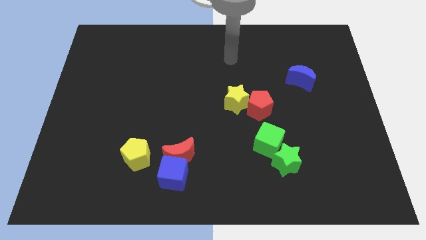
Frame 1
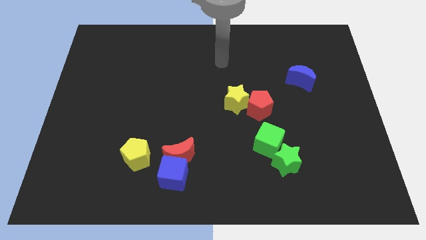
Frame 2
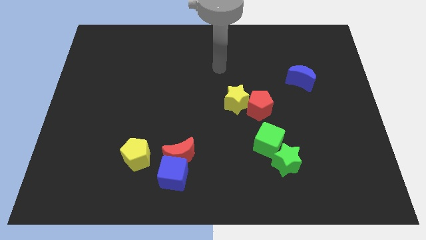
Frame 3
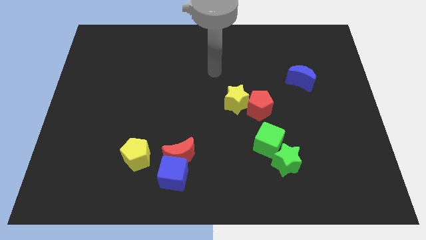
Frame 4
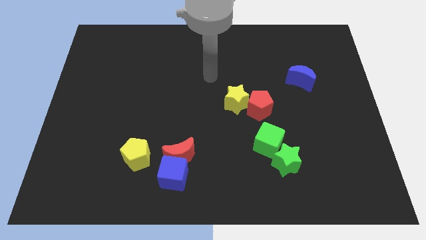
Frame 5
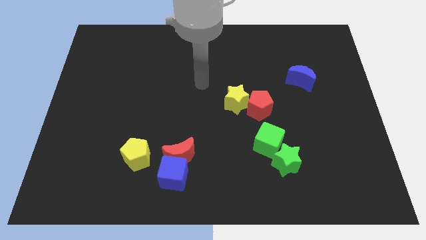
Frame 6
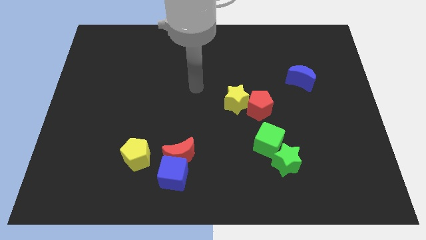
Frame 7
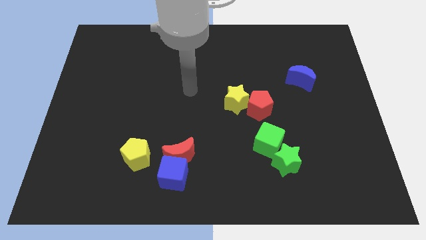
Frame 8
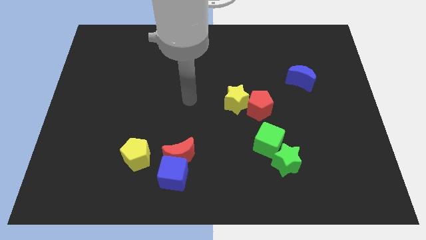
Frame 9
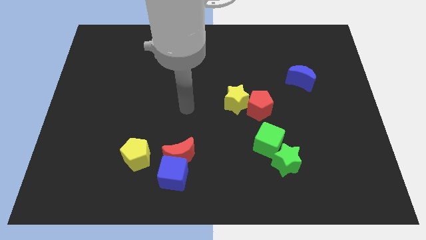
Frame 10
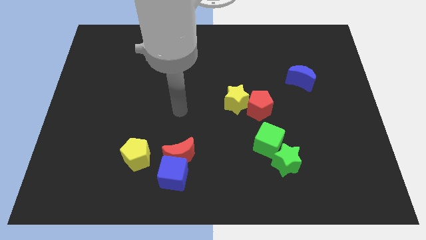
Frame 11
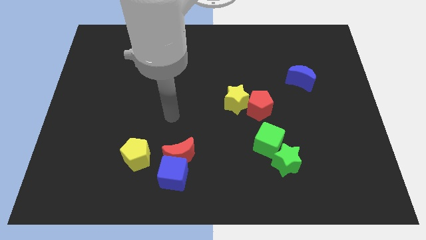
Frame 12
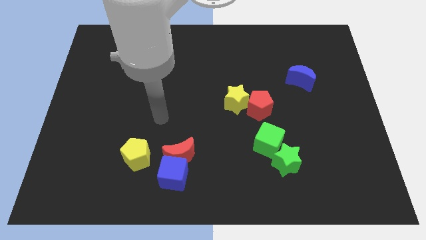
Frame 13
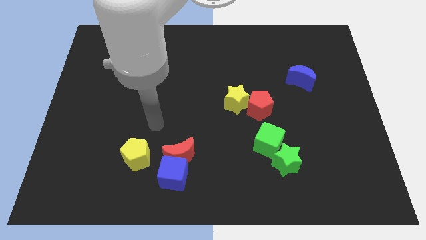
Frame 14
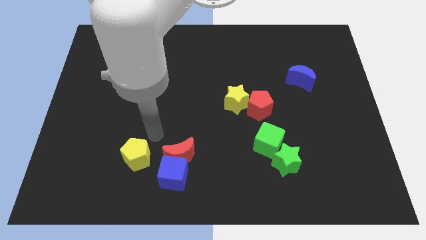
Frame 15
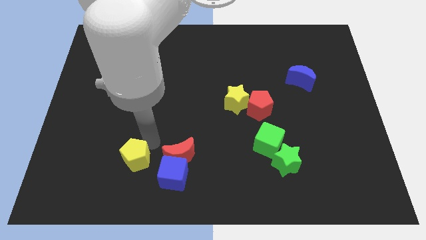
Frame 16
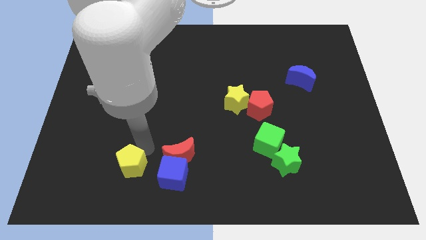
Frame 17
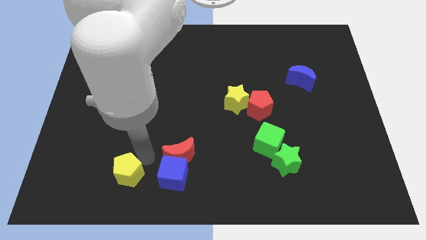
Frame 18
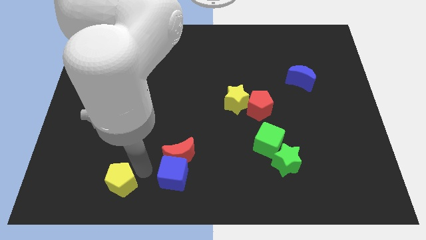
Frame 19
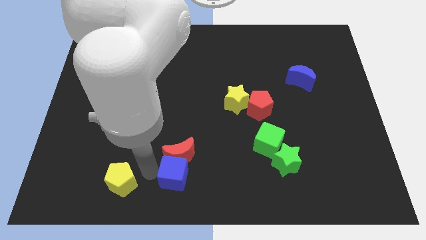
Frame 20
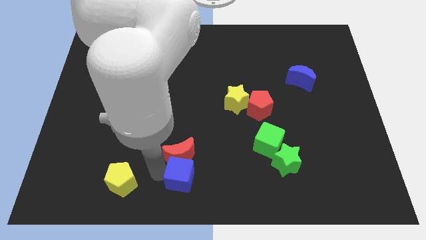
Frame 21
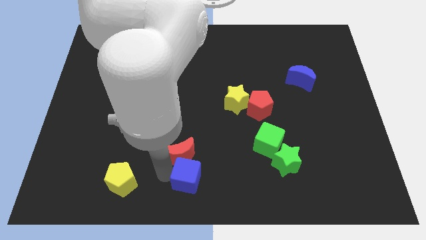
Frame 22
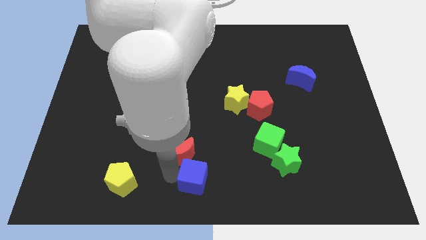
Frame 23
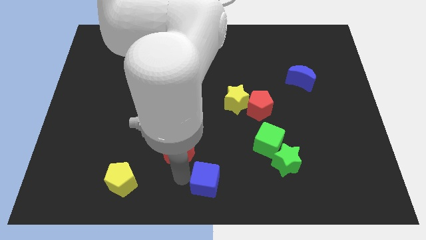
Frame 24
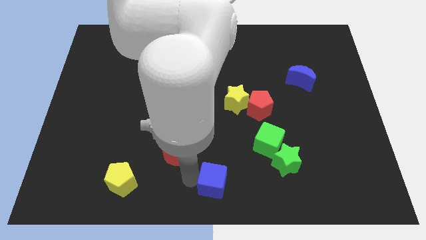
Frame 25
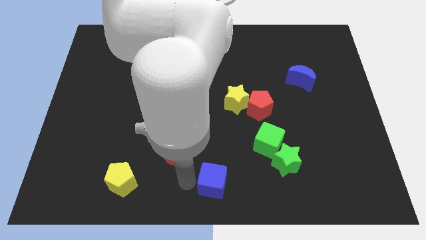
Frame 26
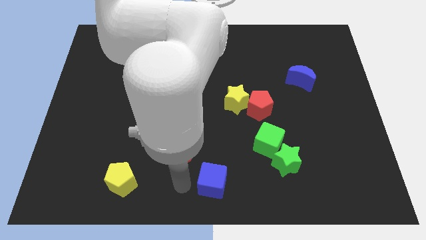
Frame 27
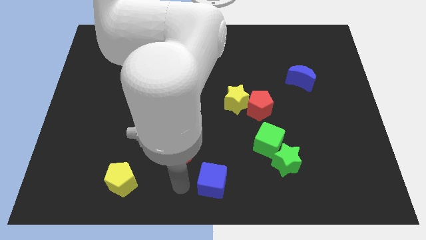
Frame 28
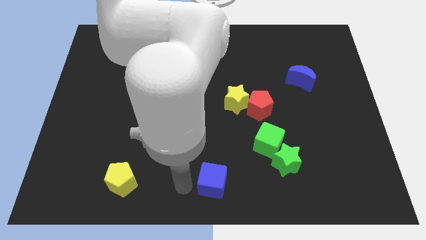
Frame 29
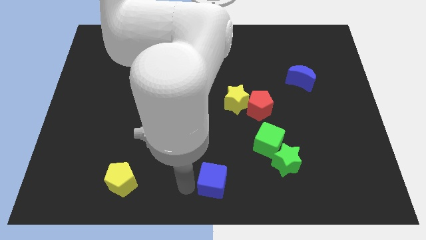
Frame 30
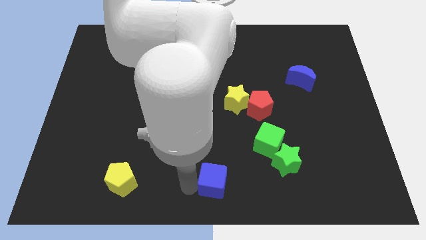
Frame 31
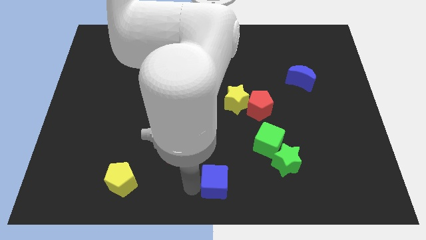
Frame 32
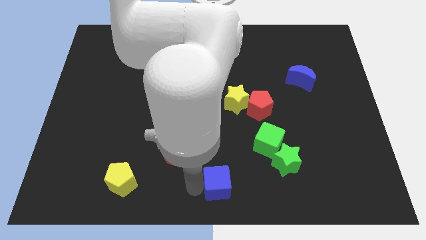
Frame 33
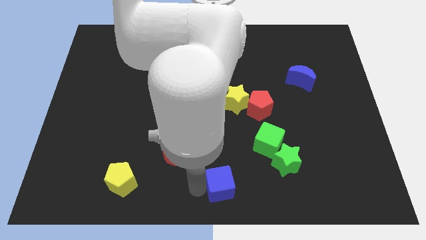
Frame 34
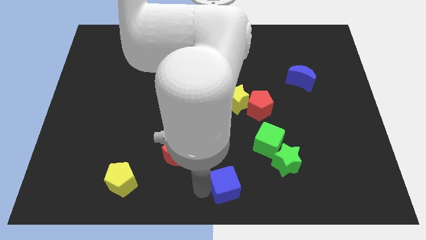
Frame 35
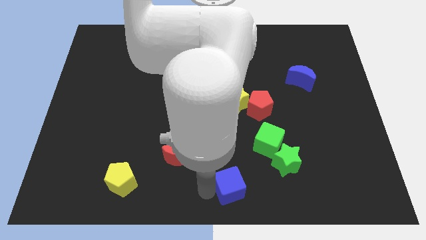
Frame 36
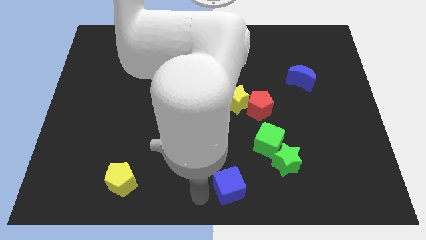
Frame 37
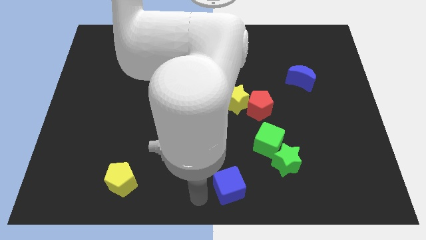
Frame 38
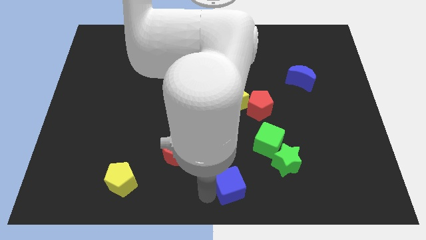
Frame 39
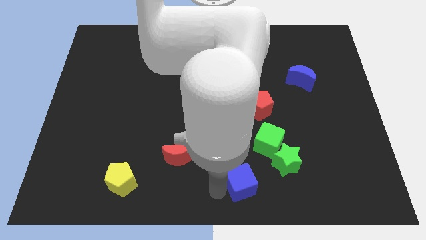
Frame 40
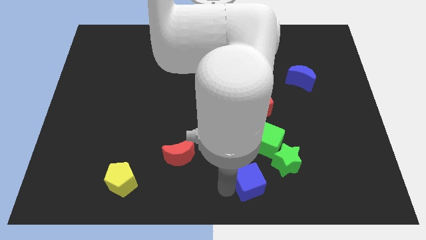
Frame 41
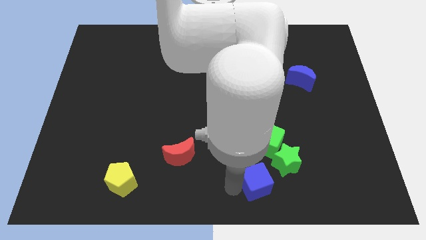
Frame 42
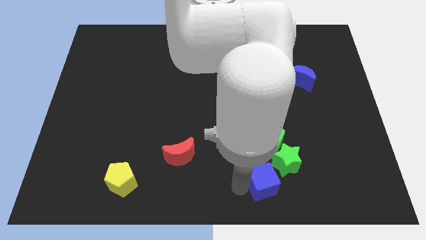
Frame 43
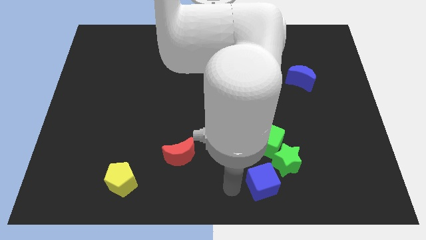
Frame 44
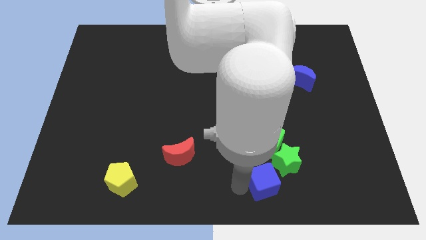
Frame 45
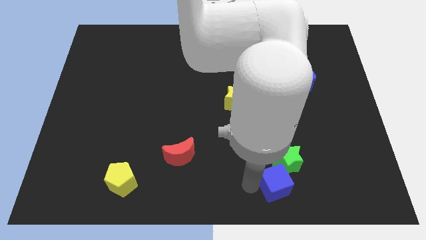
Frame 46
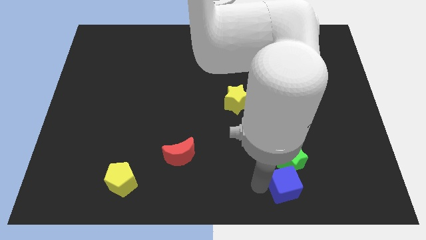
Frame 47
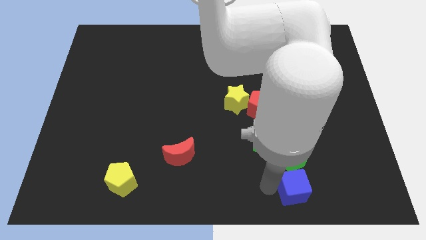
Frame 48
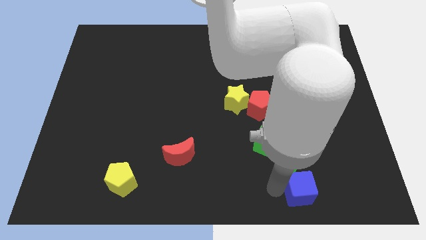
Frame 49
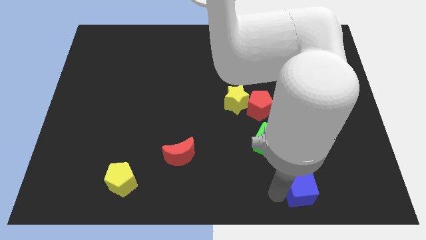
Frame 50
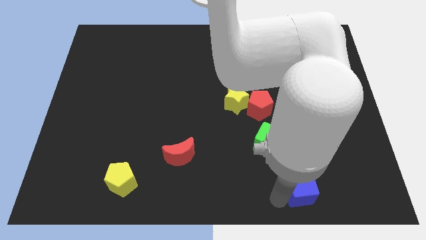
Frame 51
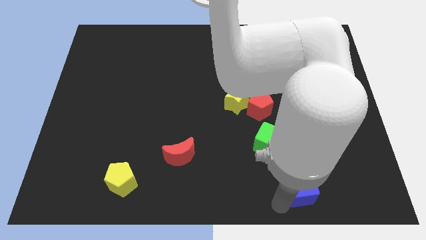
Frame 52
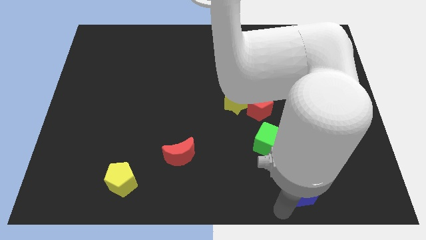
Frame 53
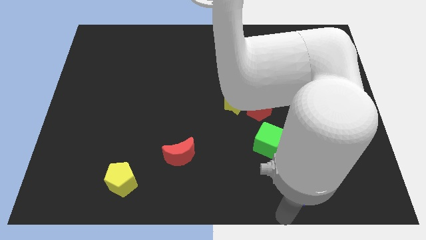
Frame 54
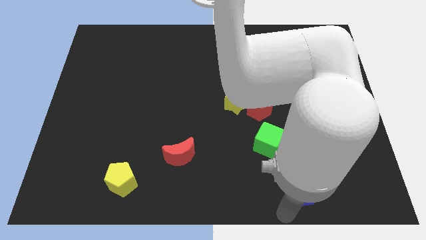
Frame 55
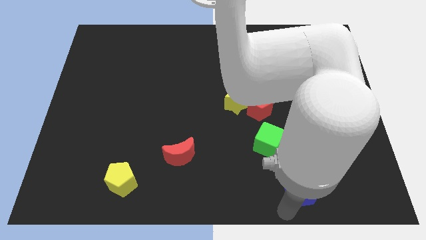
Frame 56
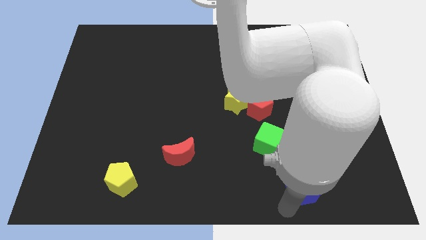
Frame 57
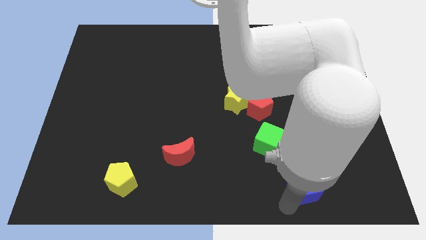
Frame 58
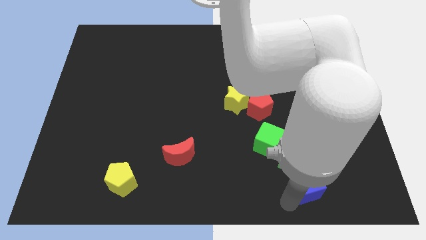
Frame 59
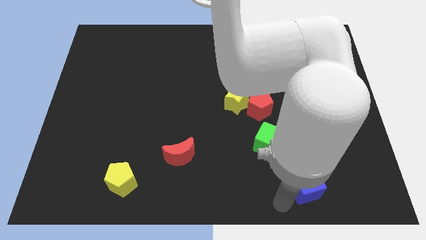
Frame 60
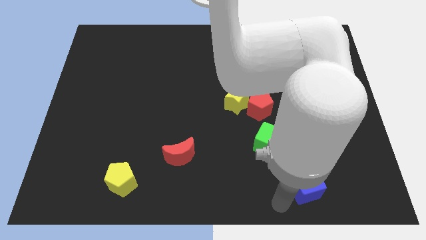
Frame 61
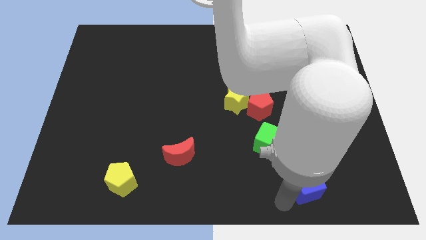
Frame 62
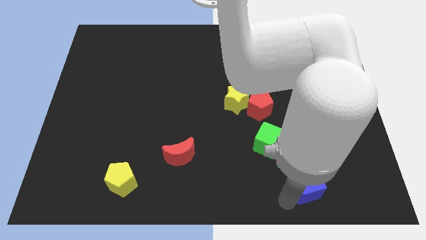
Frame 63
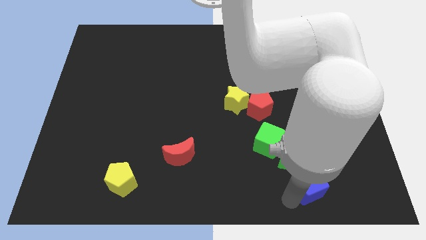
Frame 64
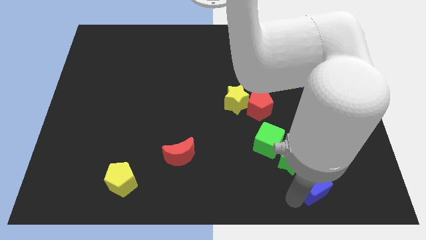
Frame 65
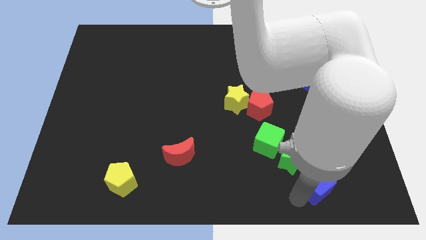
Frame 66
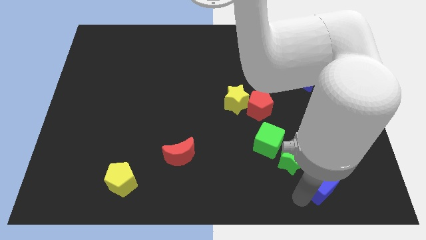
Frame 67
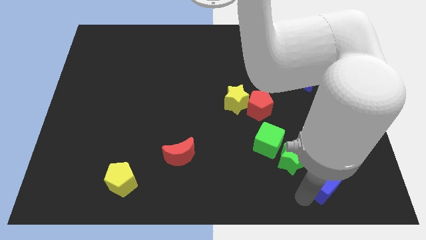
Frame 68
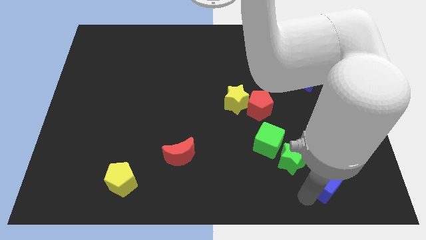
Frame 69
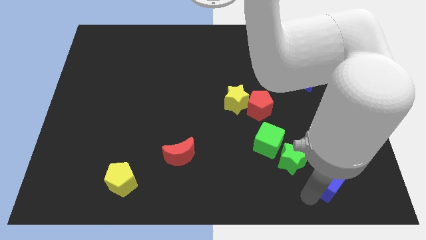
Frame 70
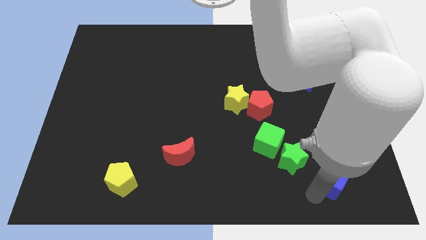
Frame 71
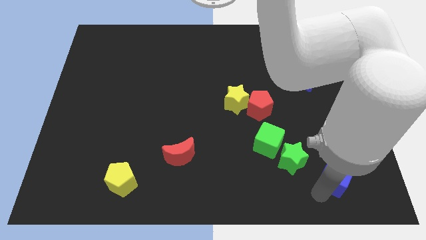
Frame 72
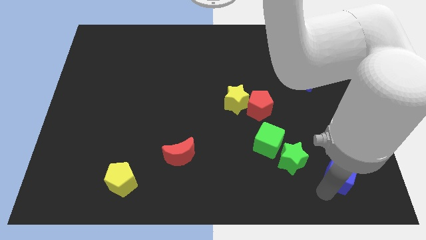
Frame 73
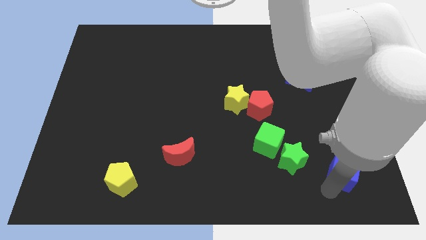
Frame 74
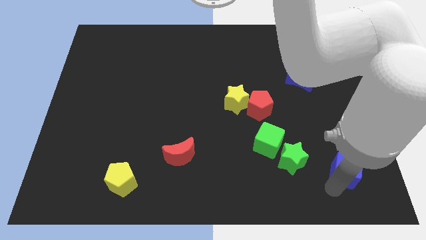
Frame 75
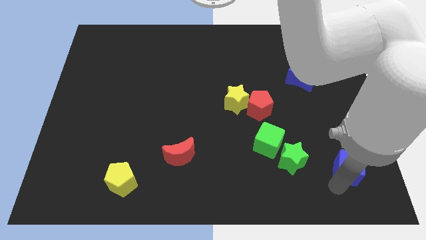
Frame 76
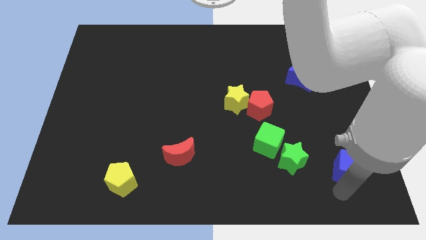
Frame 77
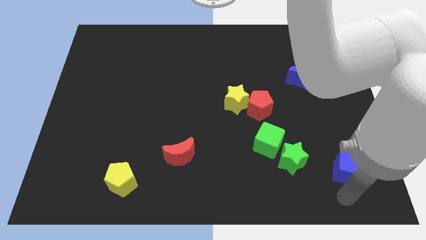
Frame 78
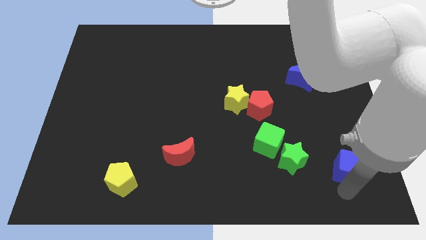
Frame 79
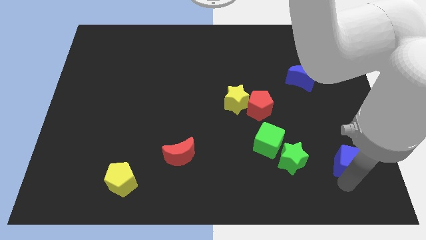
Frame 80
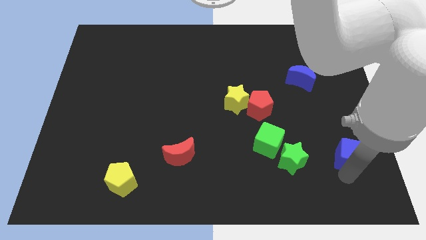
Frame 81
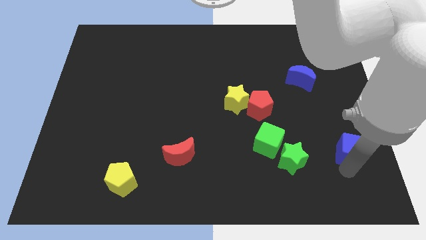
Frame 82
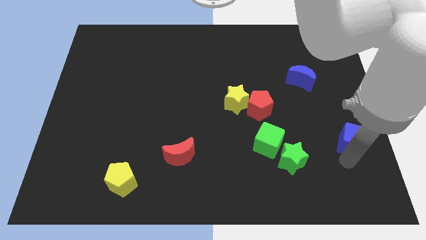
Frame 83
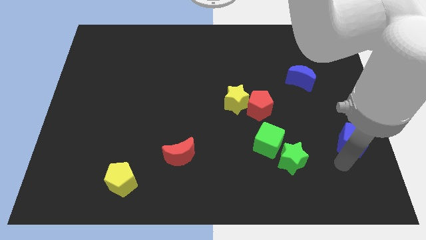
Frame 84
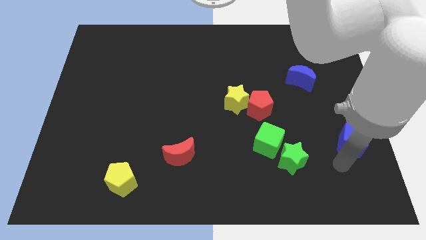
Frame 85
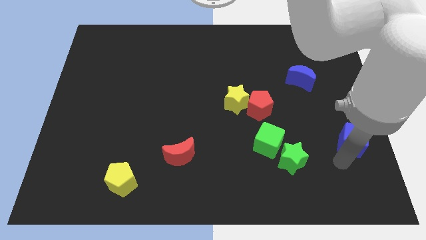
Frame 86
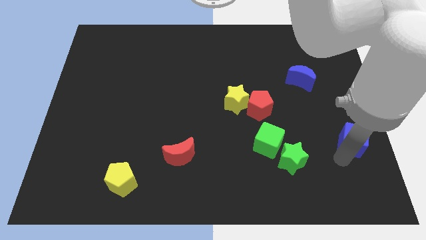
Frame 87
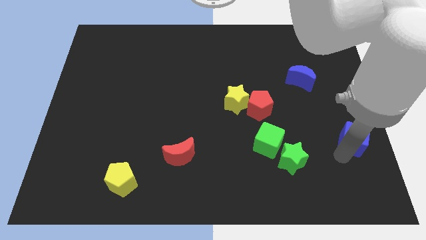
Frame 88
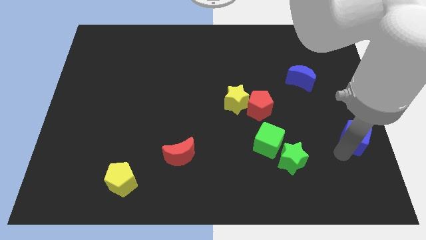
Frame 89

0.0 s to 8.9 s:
slide the blue cube to the center right
